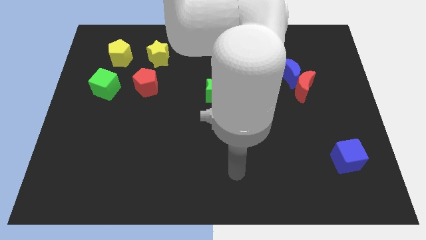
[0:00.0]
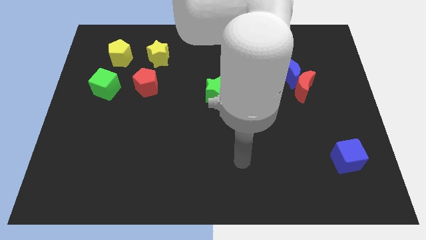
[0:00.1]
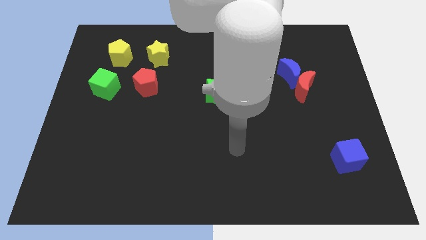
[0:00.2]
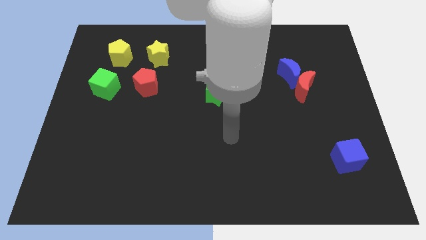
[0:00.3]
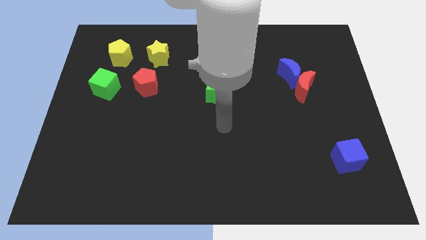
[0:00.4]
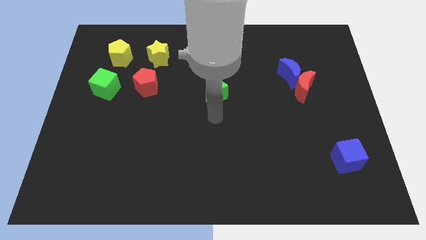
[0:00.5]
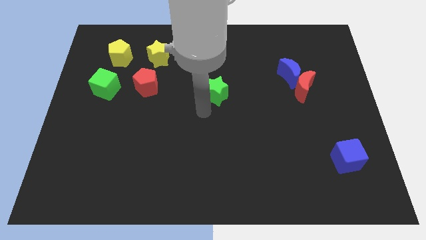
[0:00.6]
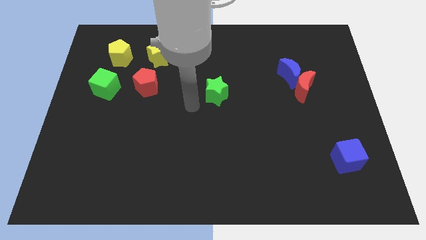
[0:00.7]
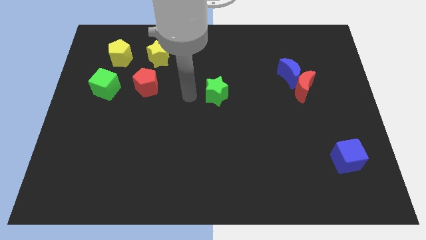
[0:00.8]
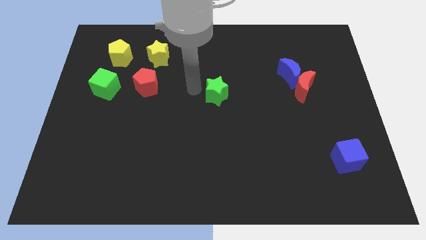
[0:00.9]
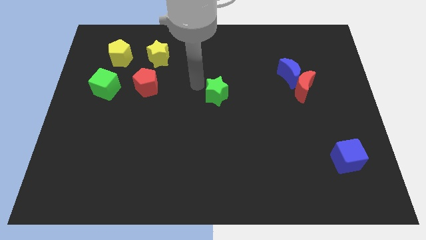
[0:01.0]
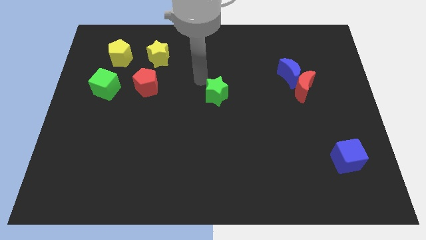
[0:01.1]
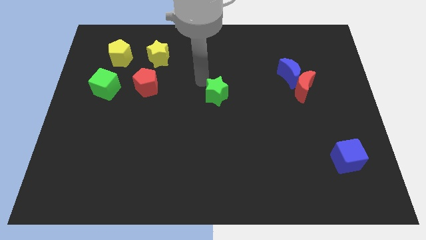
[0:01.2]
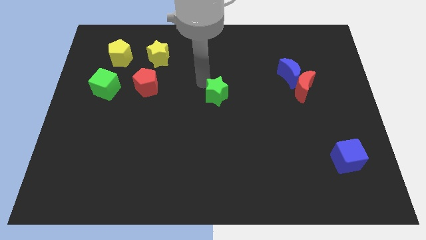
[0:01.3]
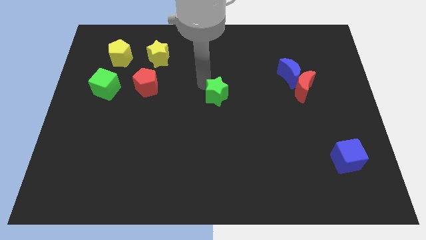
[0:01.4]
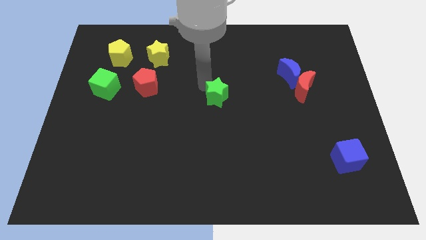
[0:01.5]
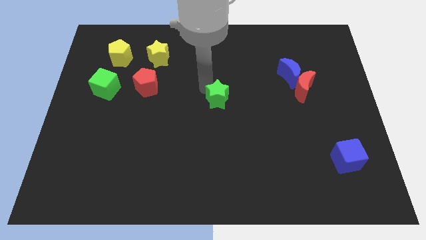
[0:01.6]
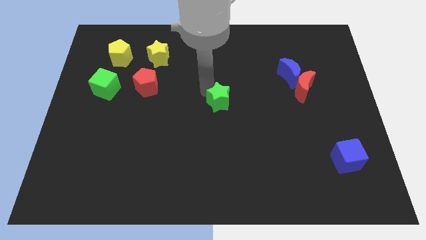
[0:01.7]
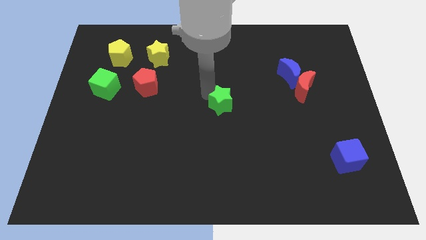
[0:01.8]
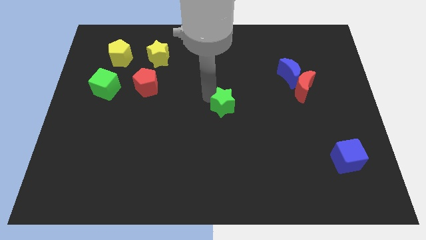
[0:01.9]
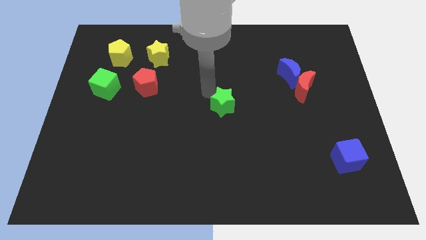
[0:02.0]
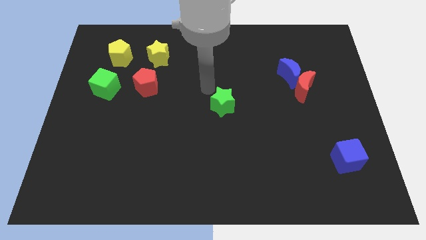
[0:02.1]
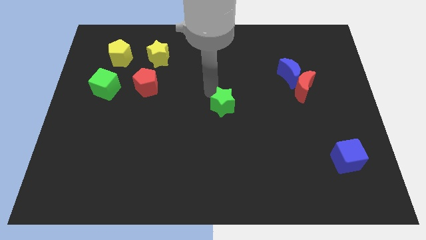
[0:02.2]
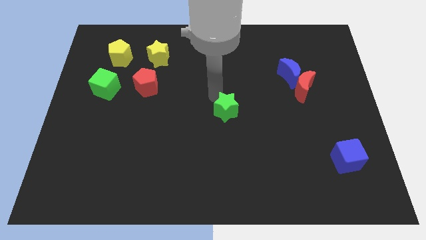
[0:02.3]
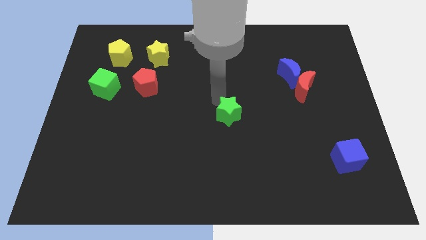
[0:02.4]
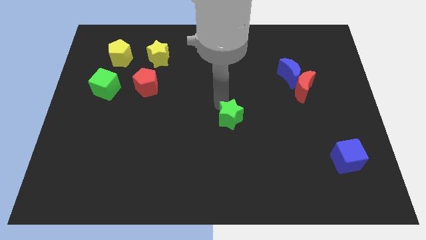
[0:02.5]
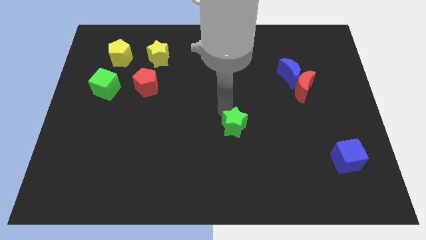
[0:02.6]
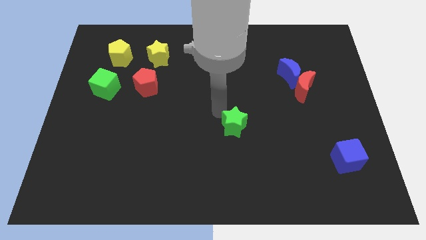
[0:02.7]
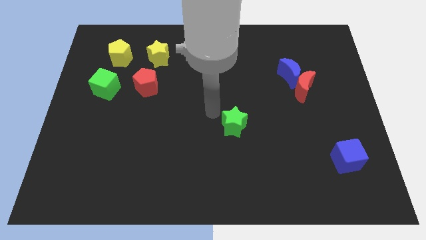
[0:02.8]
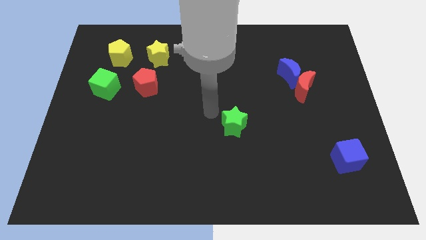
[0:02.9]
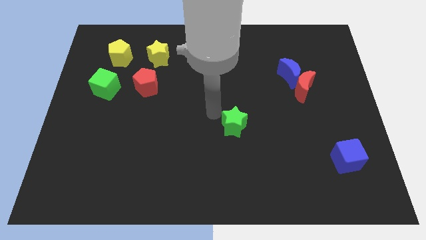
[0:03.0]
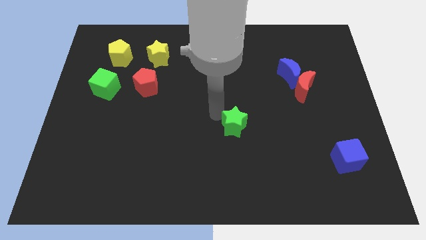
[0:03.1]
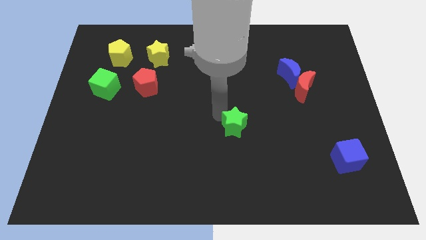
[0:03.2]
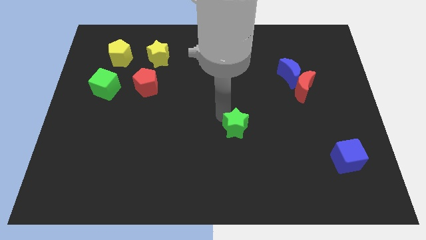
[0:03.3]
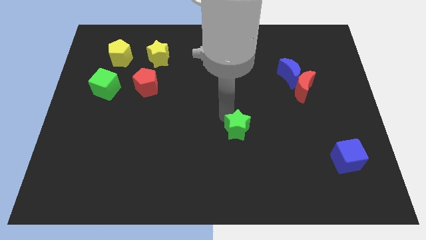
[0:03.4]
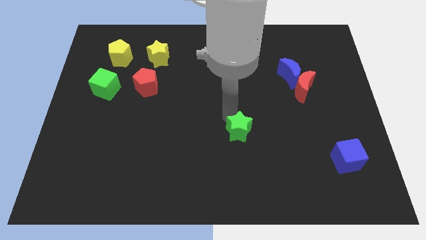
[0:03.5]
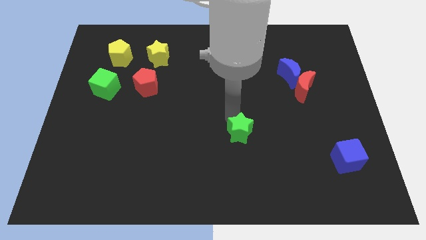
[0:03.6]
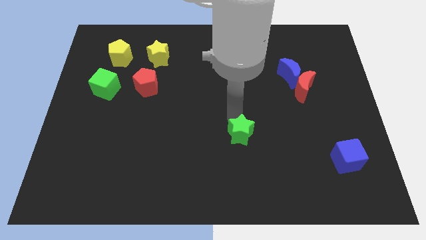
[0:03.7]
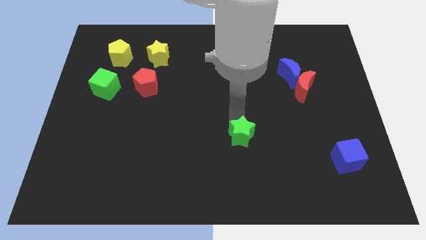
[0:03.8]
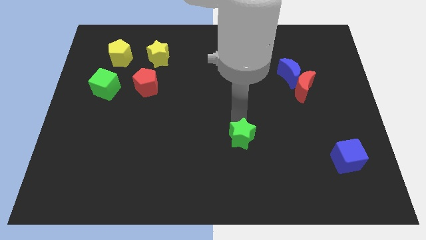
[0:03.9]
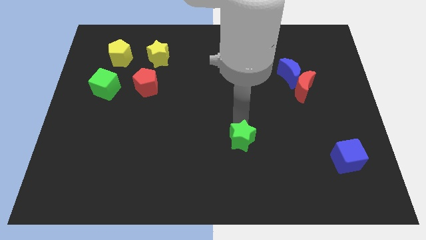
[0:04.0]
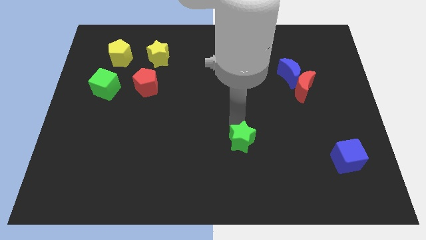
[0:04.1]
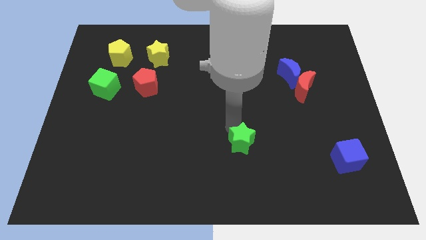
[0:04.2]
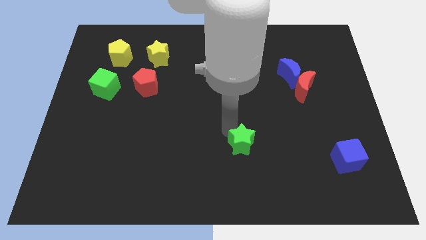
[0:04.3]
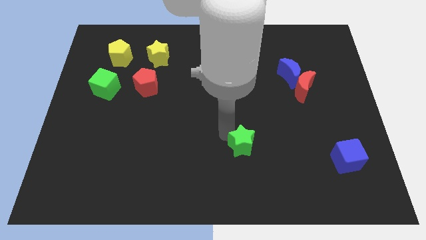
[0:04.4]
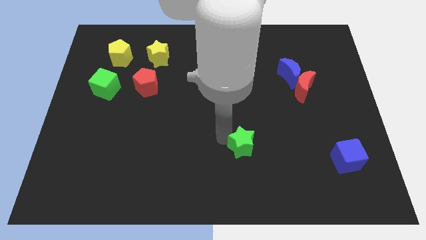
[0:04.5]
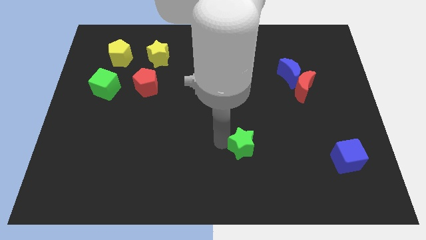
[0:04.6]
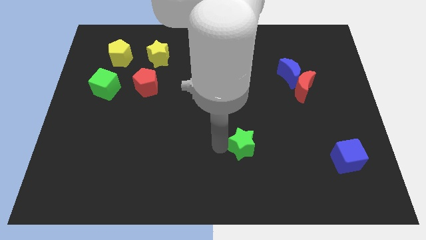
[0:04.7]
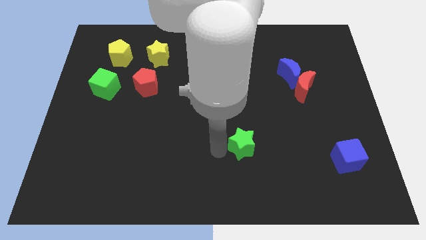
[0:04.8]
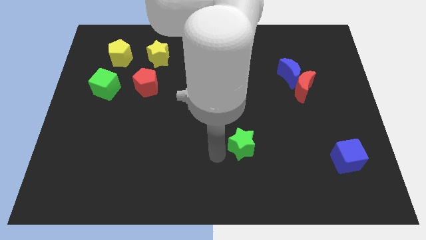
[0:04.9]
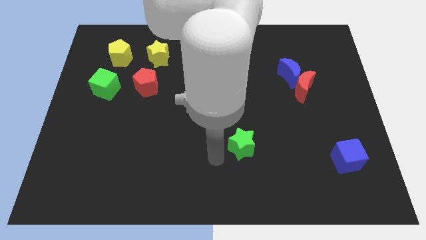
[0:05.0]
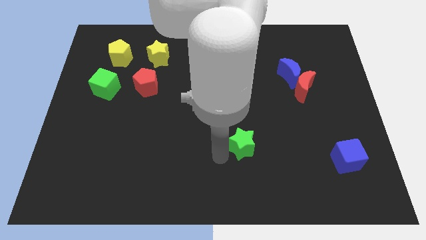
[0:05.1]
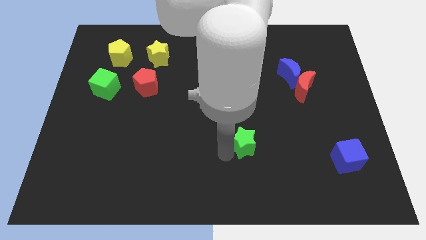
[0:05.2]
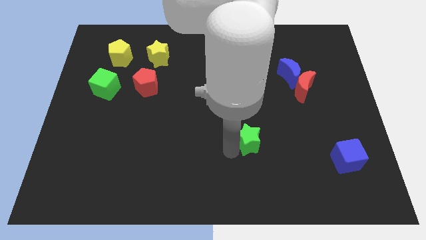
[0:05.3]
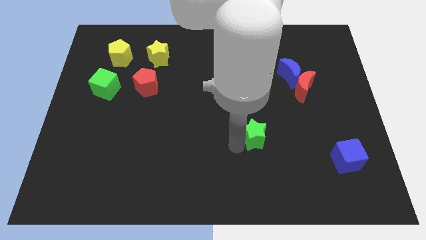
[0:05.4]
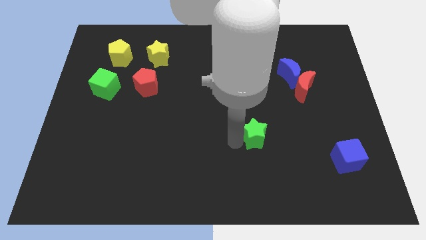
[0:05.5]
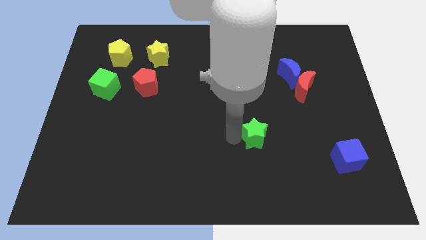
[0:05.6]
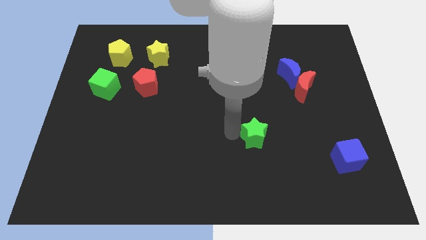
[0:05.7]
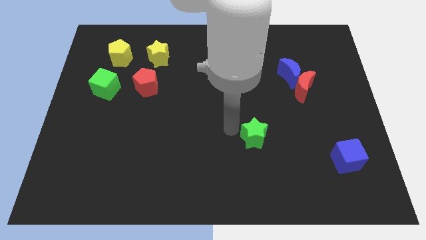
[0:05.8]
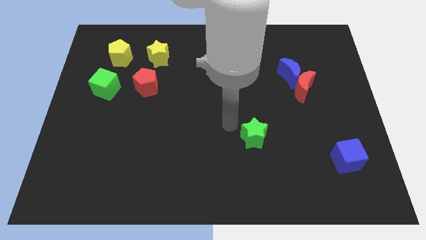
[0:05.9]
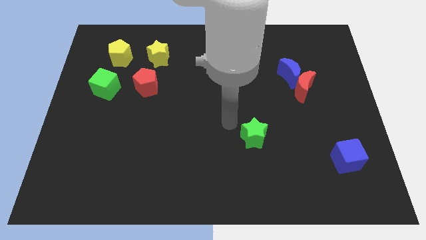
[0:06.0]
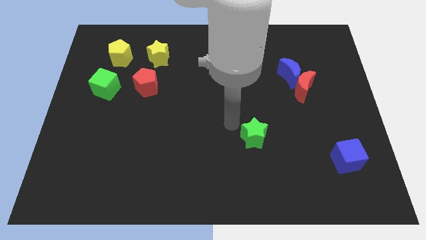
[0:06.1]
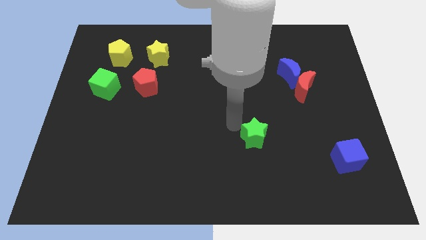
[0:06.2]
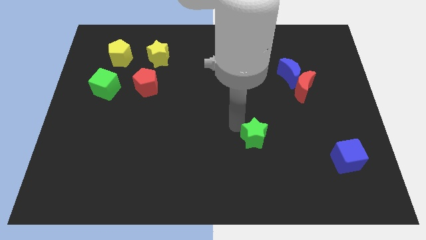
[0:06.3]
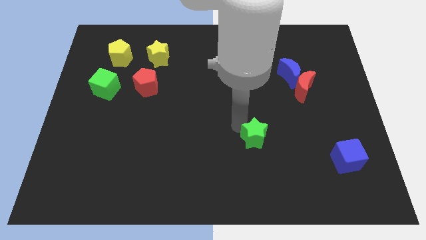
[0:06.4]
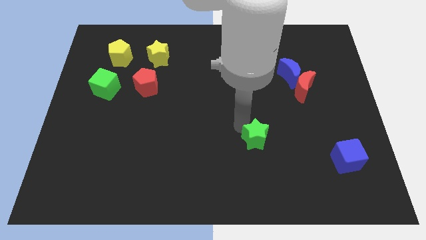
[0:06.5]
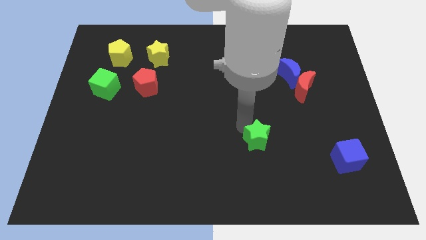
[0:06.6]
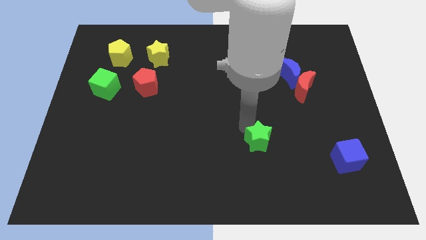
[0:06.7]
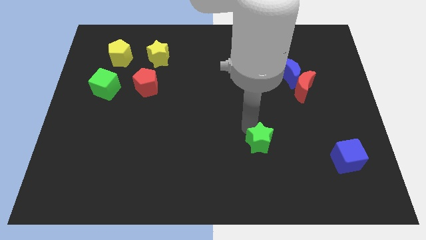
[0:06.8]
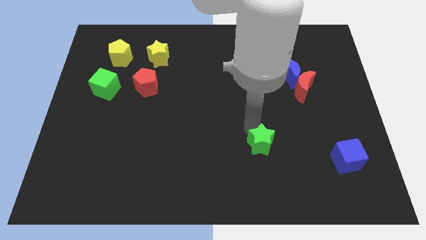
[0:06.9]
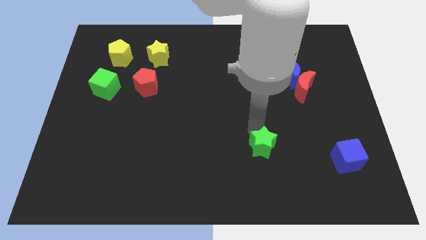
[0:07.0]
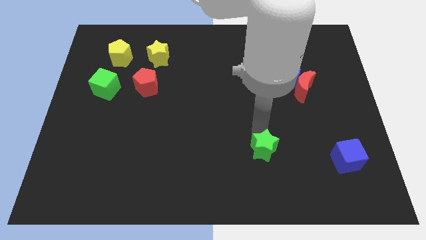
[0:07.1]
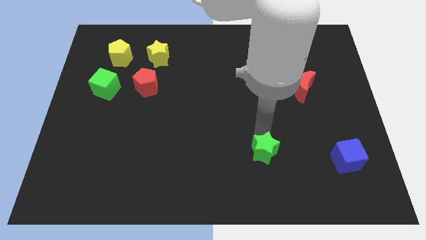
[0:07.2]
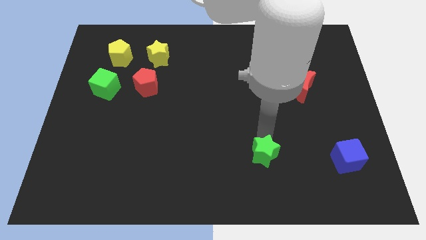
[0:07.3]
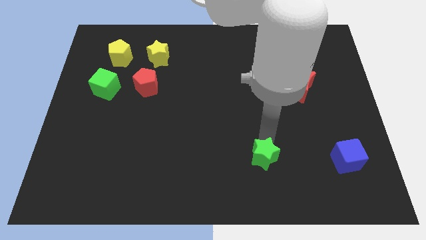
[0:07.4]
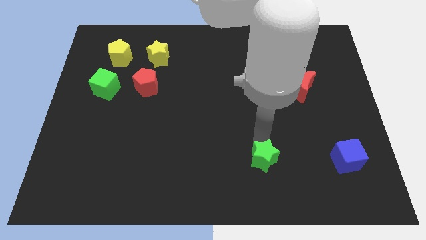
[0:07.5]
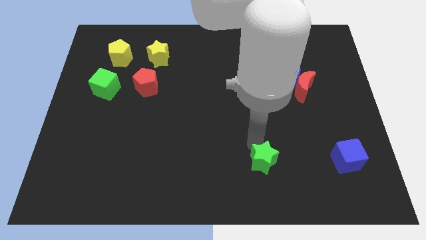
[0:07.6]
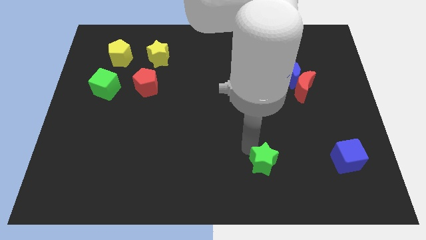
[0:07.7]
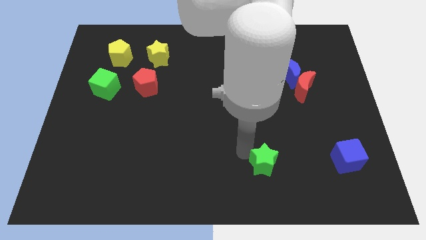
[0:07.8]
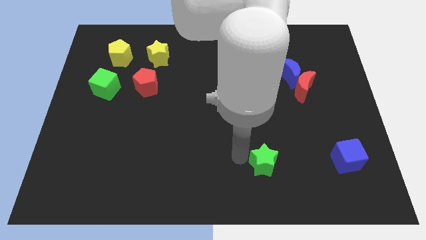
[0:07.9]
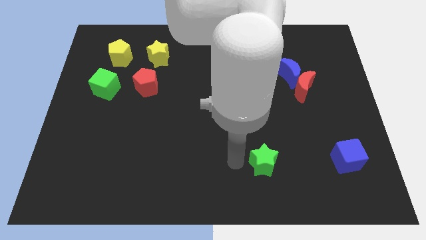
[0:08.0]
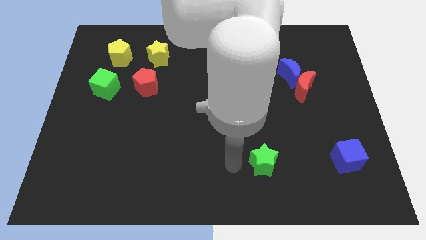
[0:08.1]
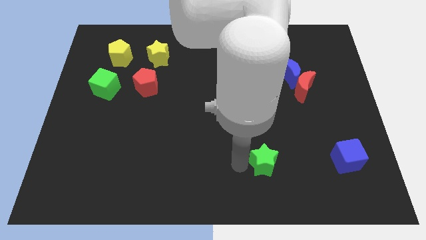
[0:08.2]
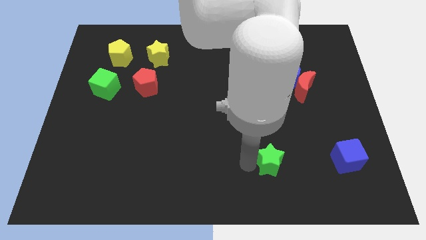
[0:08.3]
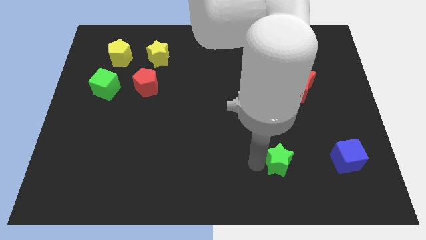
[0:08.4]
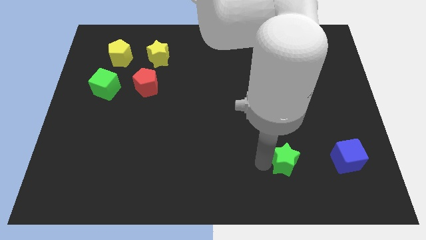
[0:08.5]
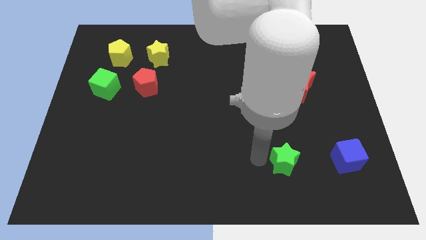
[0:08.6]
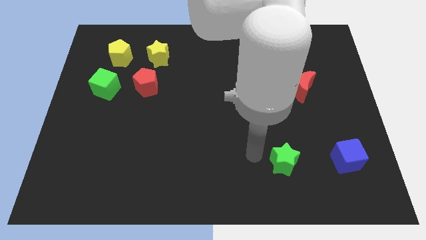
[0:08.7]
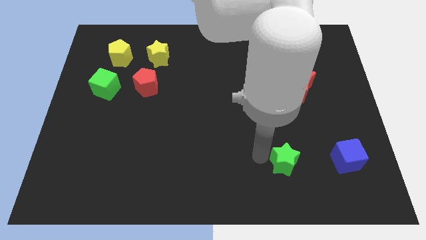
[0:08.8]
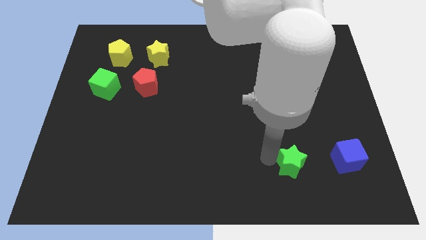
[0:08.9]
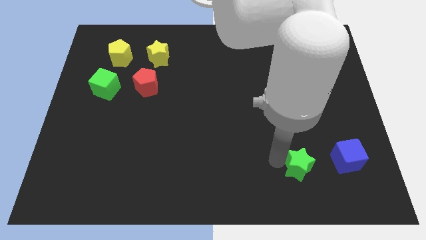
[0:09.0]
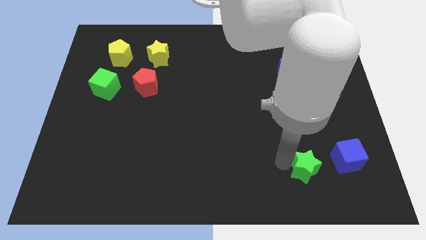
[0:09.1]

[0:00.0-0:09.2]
slide the green star to the bottom left side of the blue cube
